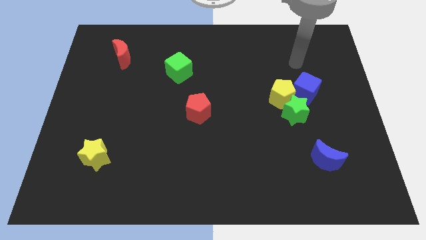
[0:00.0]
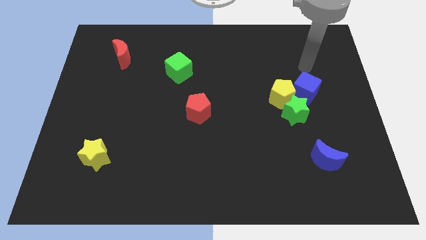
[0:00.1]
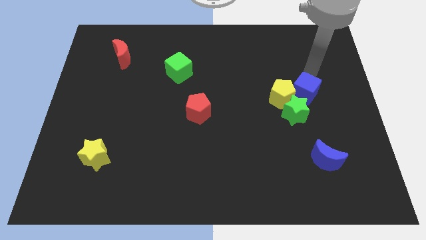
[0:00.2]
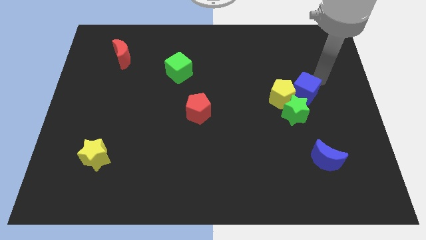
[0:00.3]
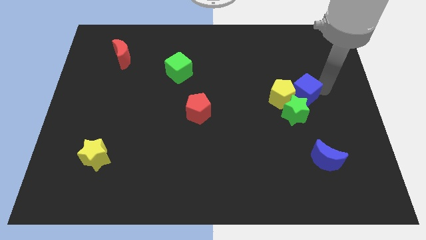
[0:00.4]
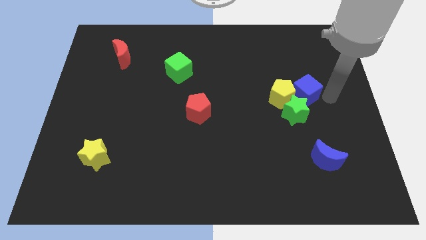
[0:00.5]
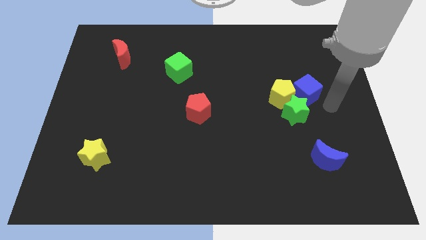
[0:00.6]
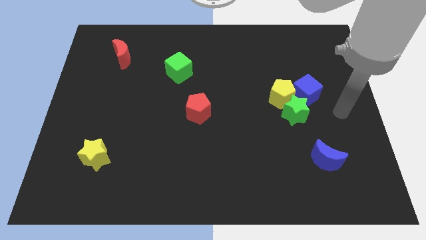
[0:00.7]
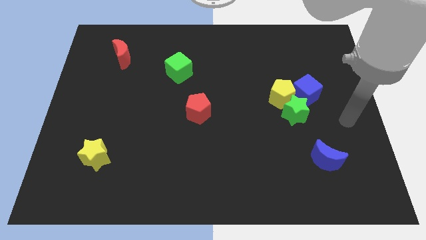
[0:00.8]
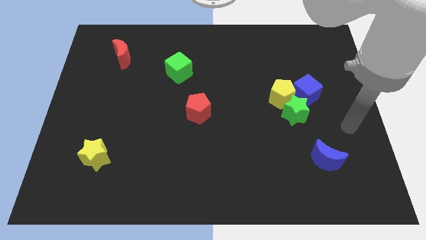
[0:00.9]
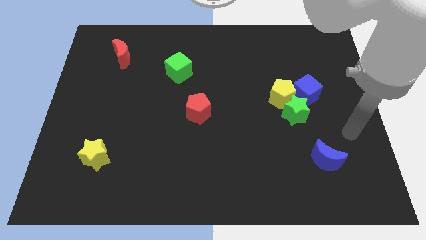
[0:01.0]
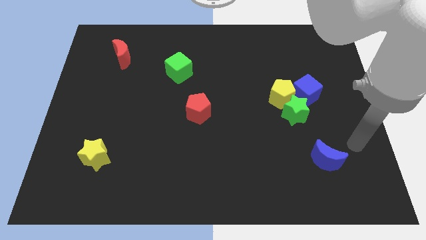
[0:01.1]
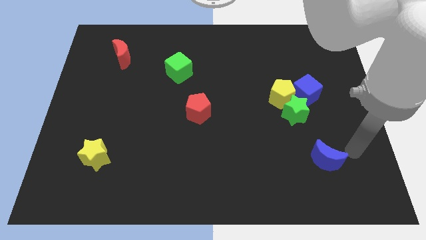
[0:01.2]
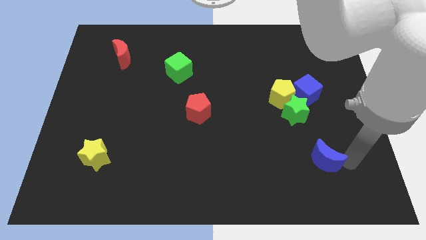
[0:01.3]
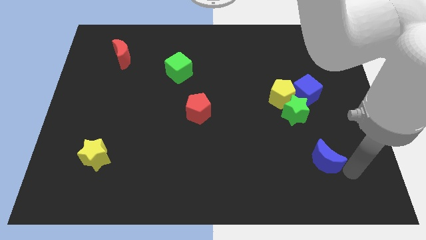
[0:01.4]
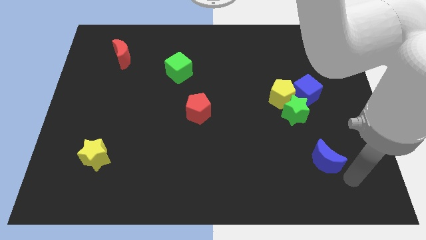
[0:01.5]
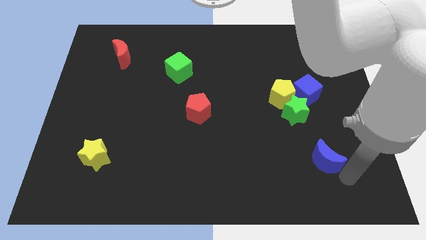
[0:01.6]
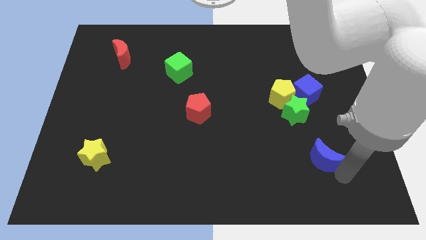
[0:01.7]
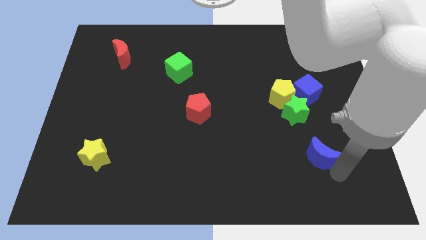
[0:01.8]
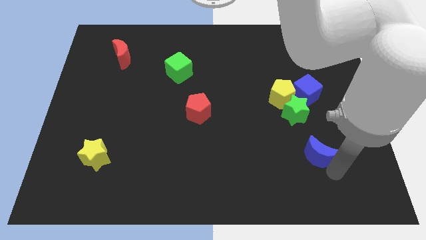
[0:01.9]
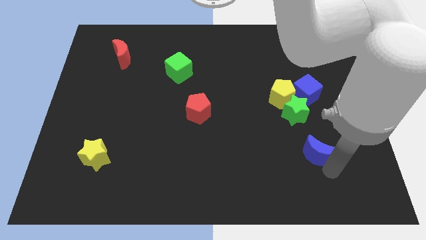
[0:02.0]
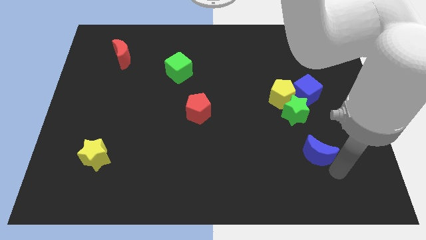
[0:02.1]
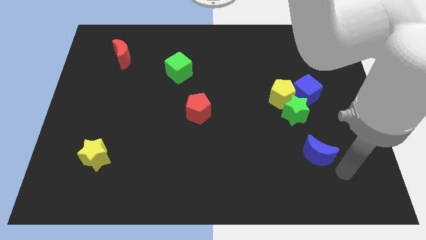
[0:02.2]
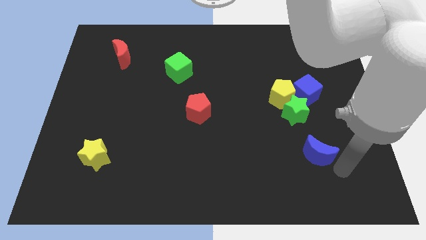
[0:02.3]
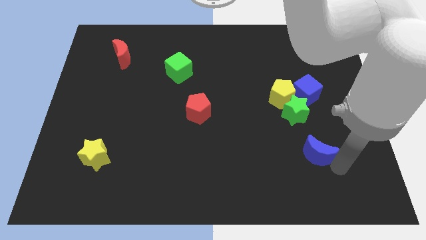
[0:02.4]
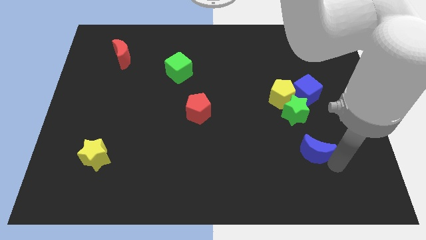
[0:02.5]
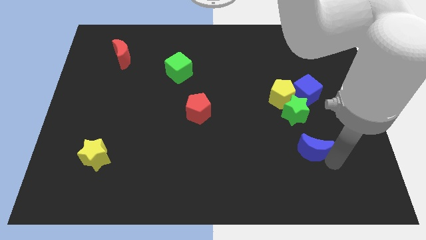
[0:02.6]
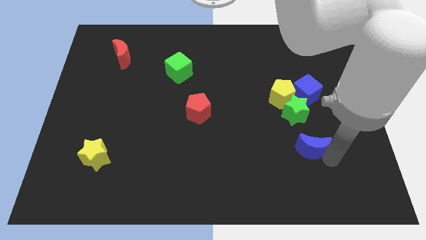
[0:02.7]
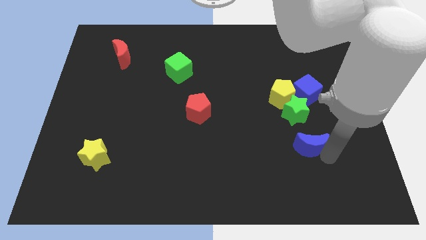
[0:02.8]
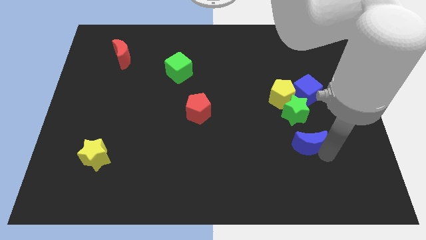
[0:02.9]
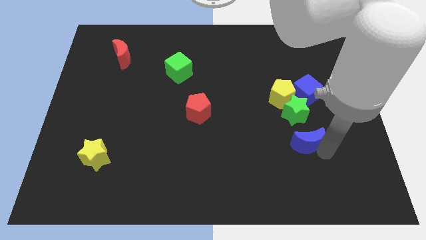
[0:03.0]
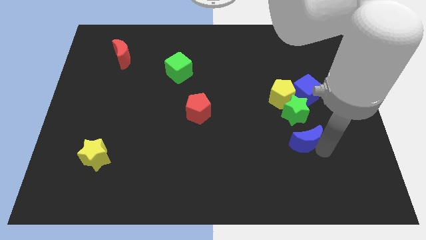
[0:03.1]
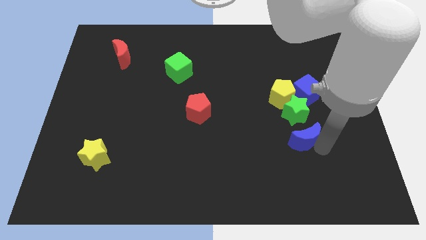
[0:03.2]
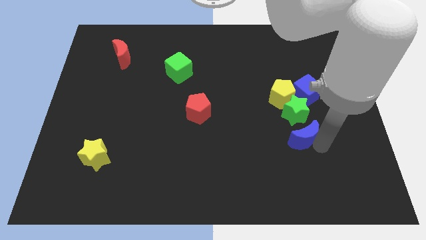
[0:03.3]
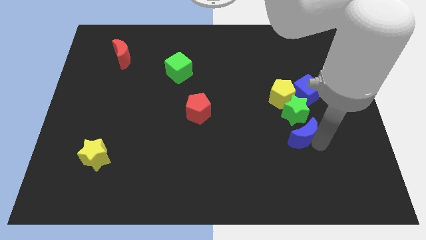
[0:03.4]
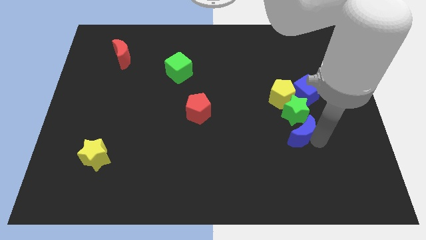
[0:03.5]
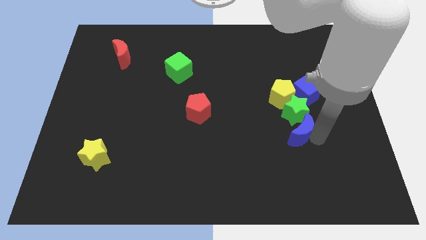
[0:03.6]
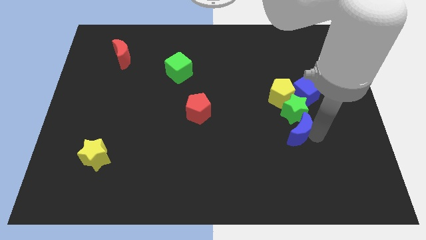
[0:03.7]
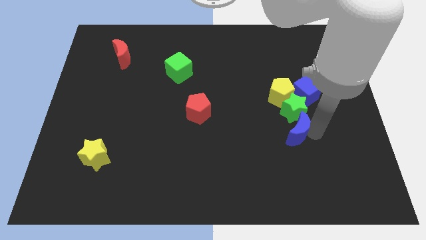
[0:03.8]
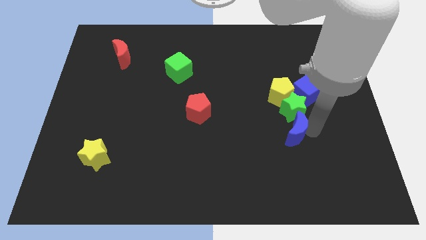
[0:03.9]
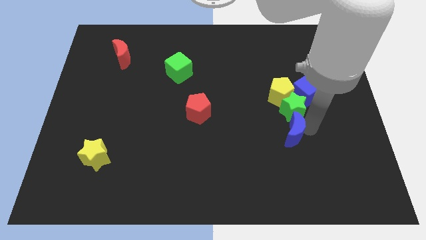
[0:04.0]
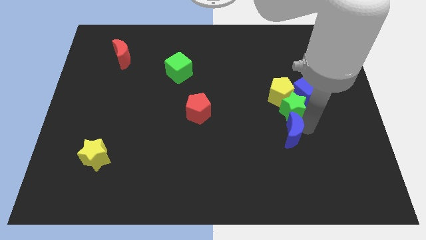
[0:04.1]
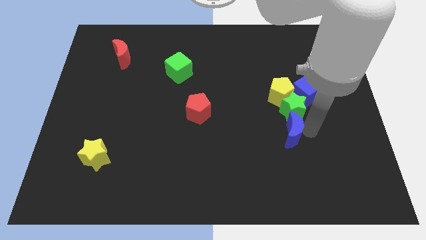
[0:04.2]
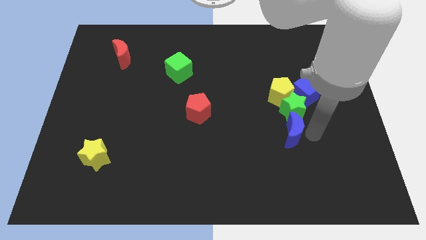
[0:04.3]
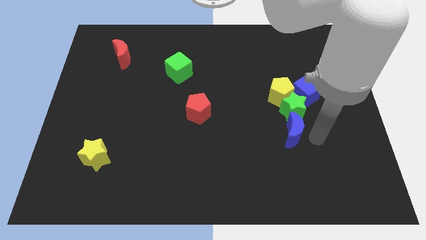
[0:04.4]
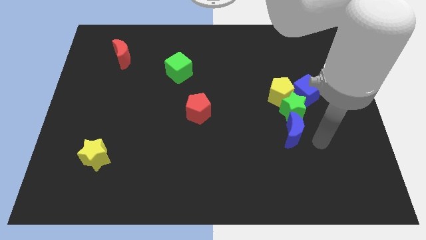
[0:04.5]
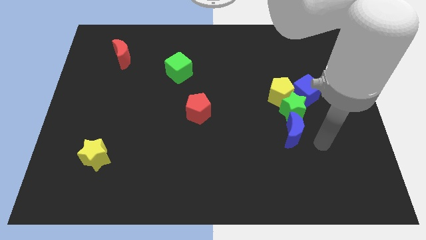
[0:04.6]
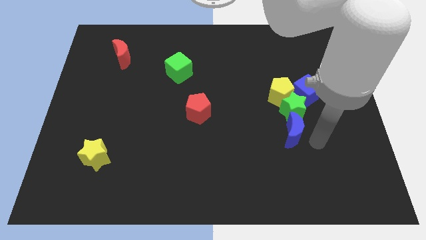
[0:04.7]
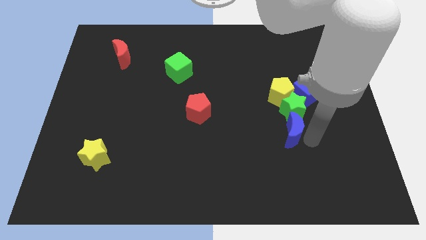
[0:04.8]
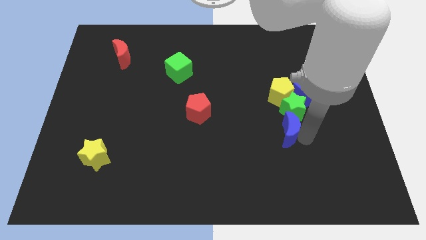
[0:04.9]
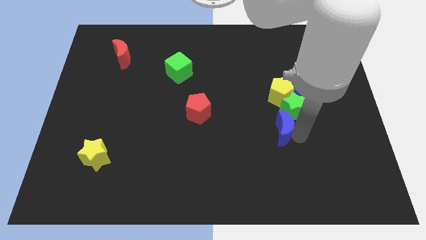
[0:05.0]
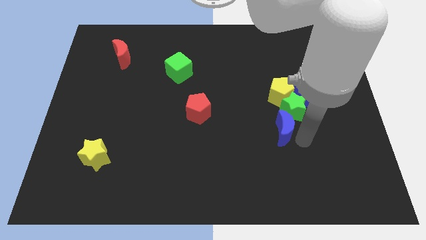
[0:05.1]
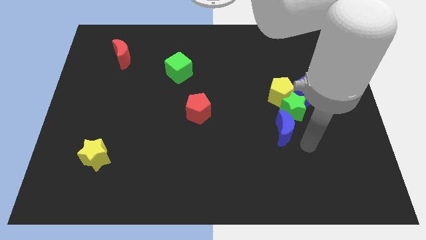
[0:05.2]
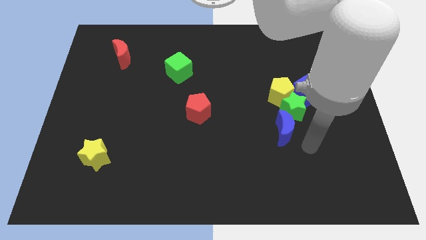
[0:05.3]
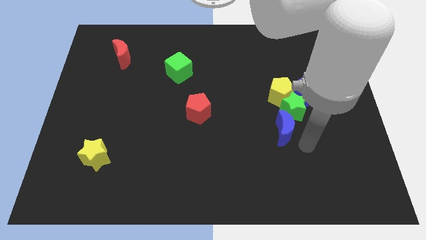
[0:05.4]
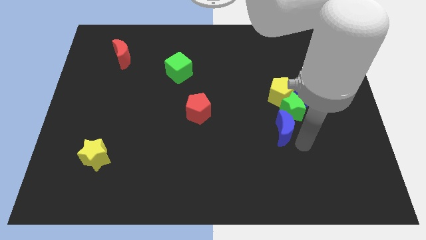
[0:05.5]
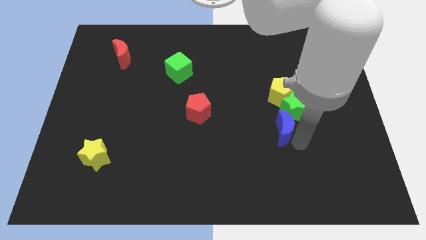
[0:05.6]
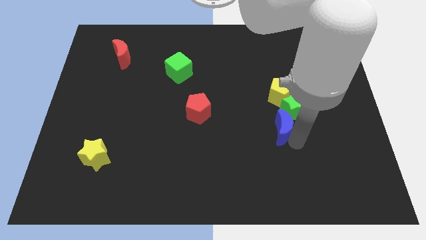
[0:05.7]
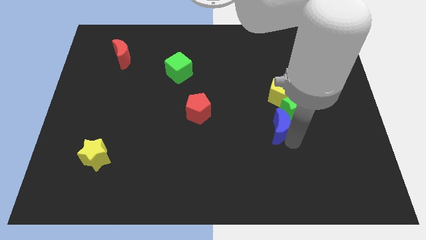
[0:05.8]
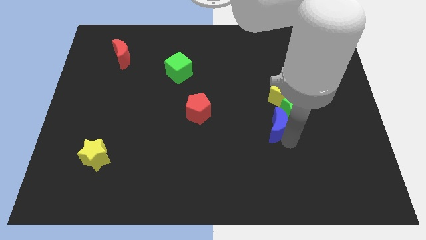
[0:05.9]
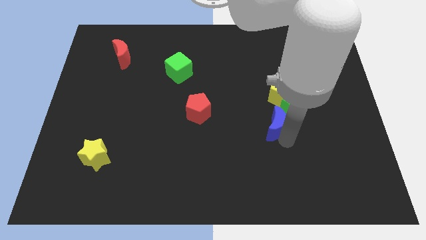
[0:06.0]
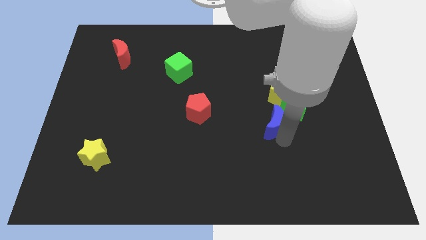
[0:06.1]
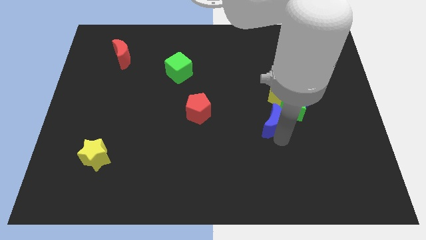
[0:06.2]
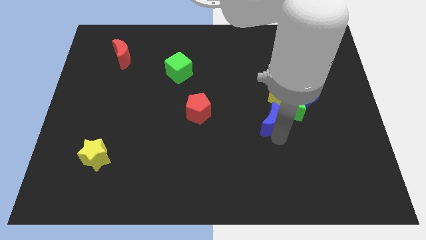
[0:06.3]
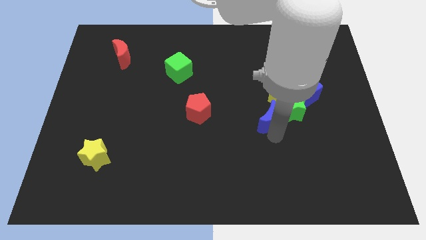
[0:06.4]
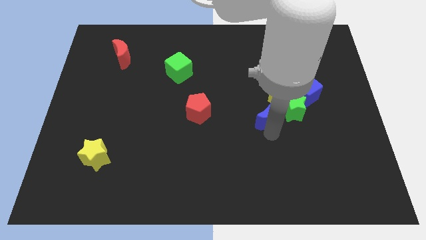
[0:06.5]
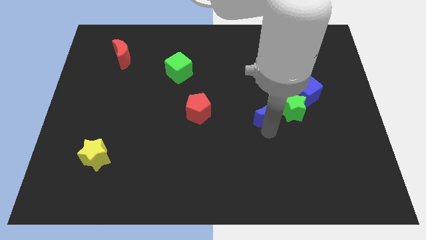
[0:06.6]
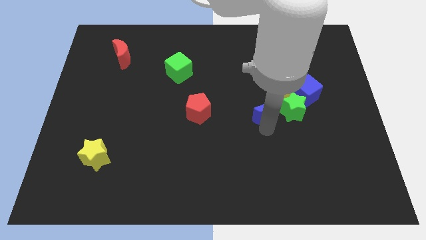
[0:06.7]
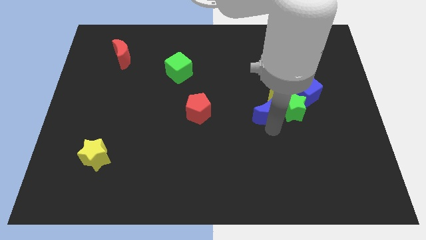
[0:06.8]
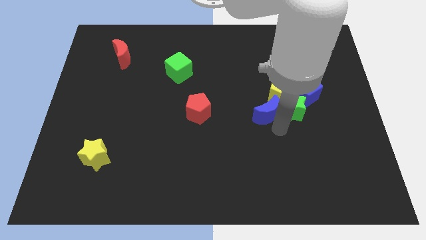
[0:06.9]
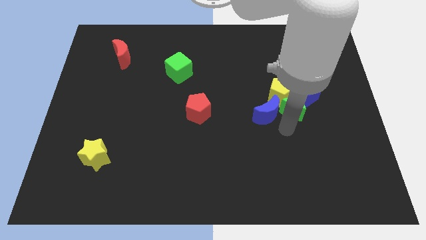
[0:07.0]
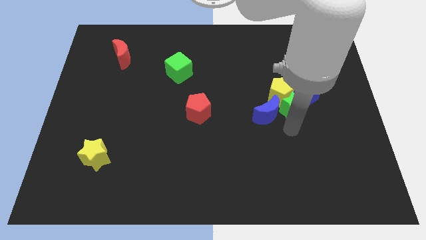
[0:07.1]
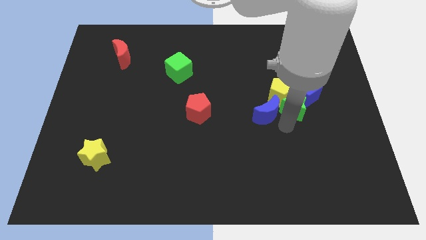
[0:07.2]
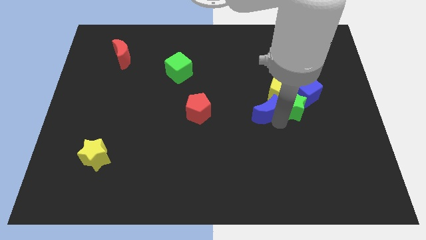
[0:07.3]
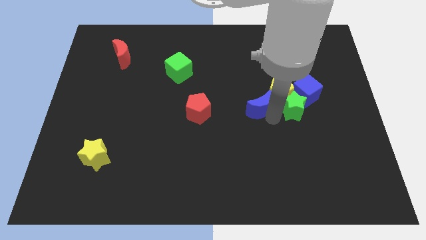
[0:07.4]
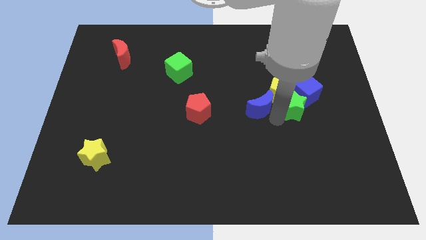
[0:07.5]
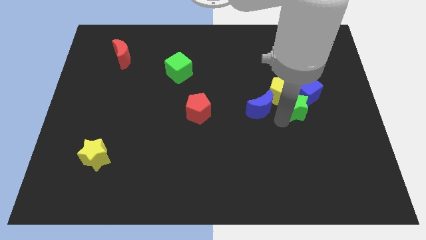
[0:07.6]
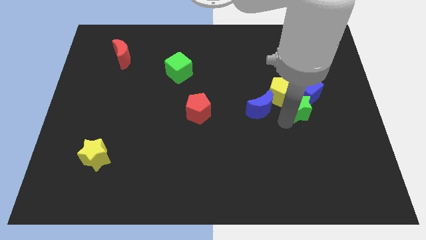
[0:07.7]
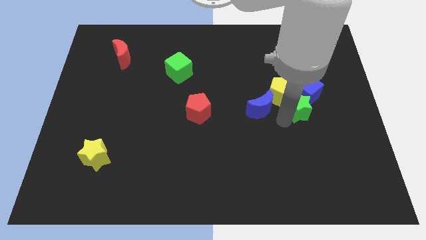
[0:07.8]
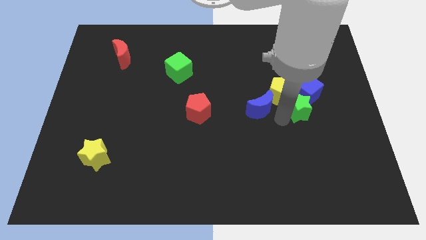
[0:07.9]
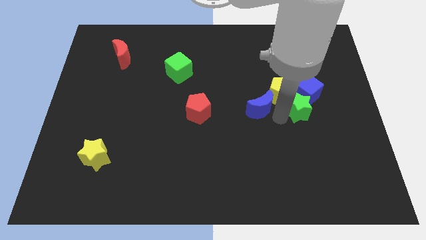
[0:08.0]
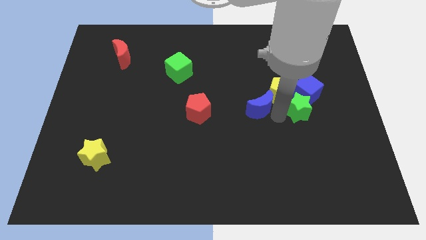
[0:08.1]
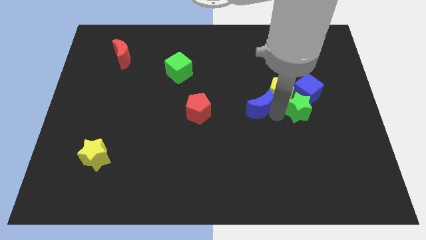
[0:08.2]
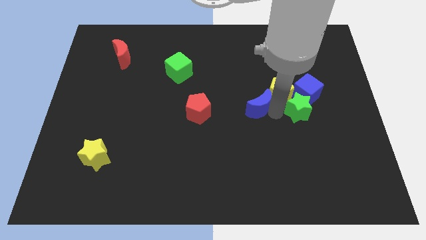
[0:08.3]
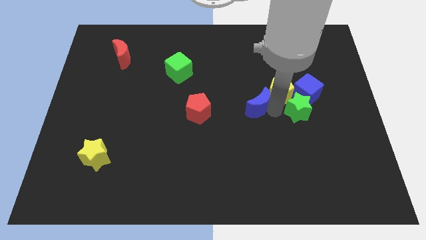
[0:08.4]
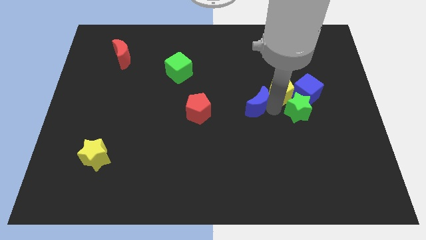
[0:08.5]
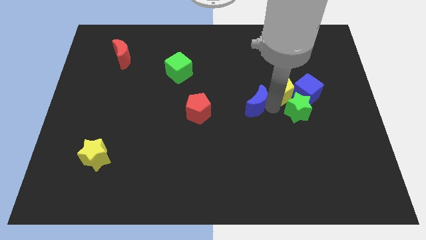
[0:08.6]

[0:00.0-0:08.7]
move the blue moon upwards and left diagonally
